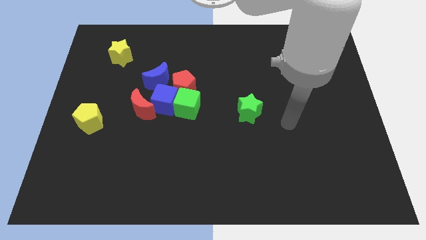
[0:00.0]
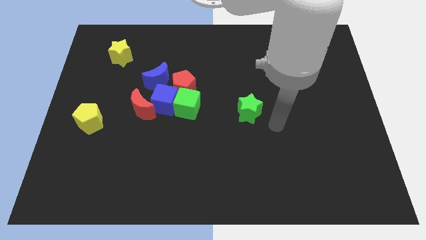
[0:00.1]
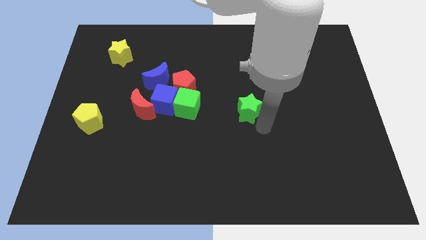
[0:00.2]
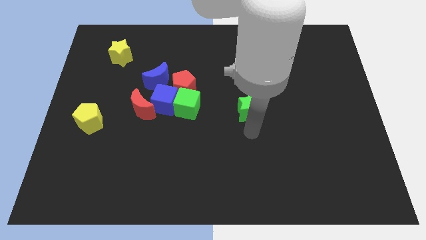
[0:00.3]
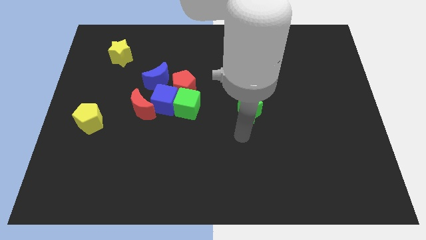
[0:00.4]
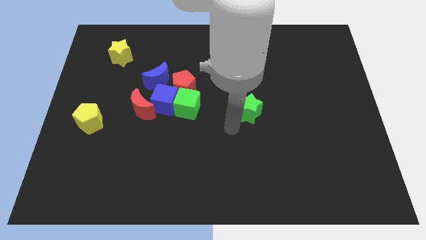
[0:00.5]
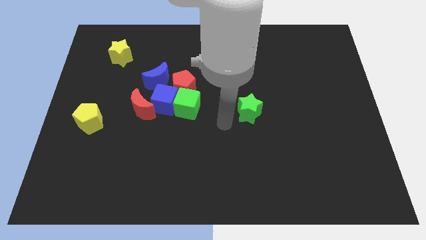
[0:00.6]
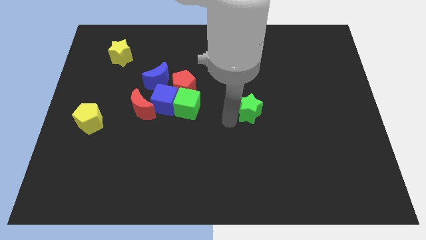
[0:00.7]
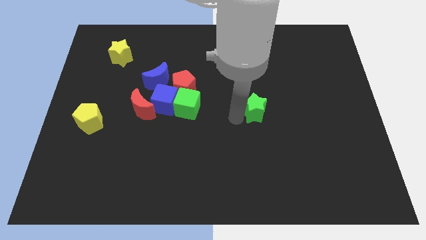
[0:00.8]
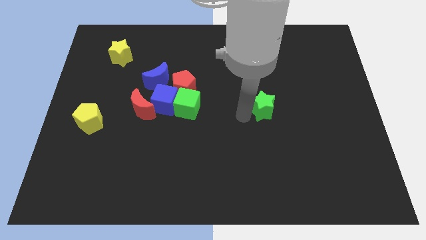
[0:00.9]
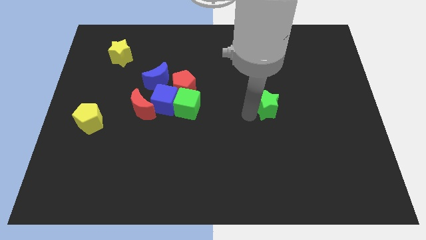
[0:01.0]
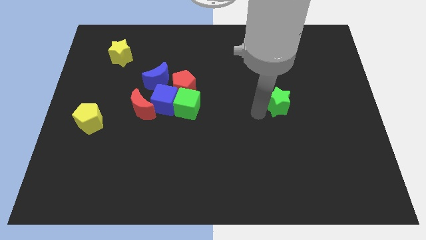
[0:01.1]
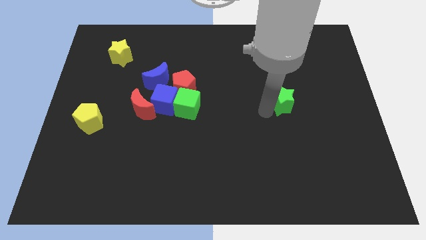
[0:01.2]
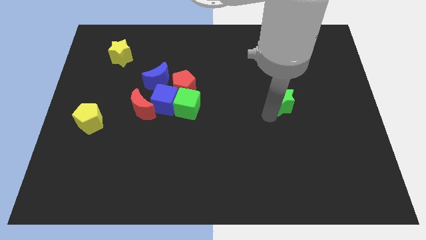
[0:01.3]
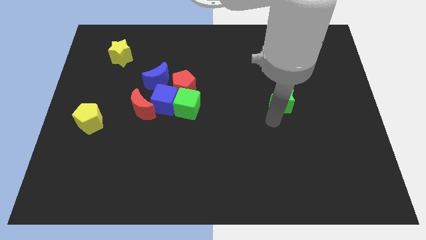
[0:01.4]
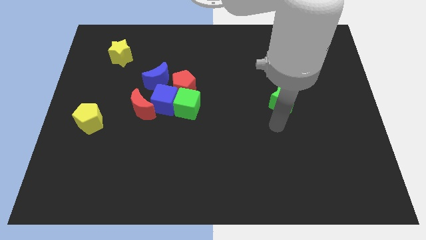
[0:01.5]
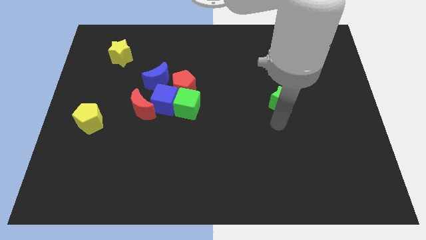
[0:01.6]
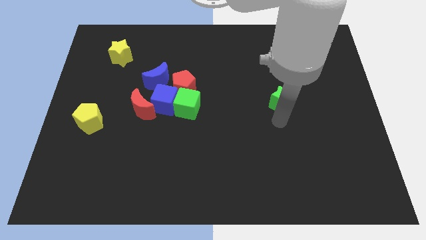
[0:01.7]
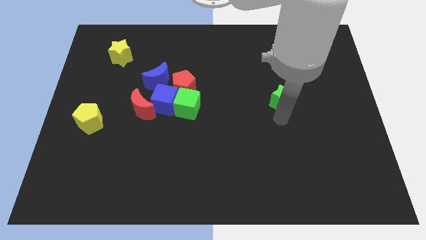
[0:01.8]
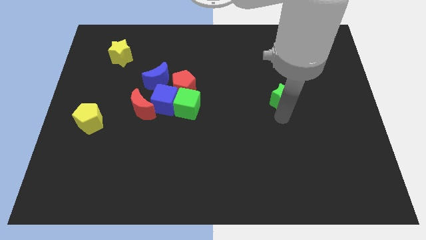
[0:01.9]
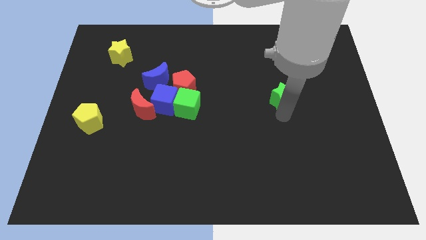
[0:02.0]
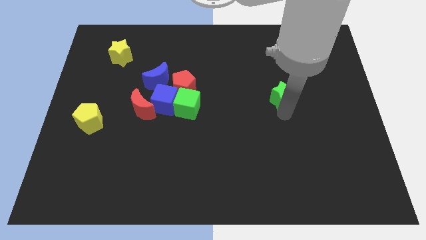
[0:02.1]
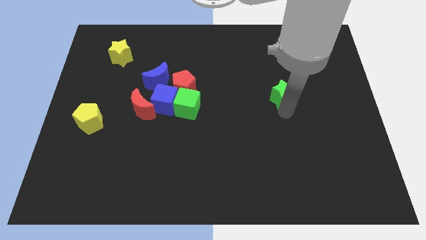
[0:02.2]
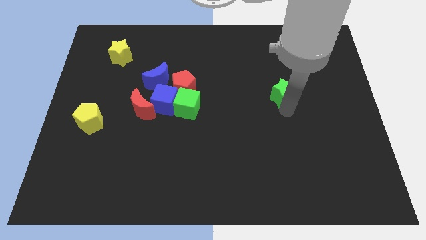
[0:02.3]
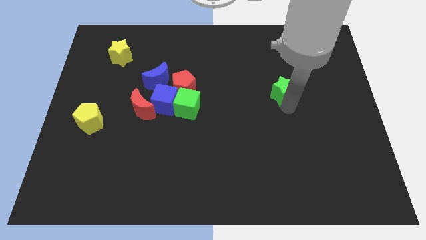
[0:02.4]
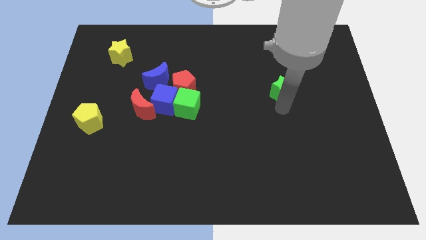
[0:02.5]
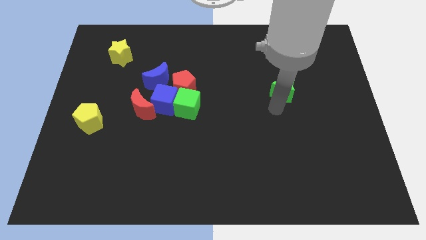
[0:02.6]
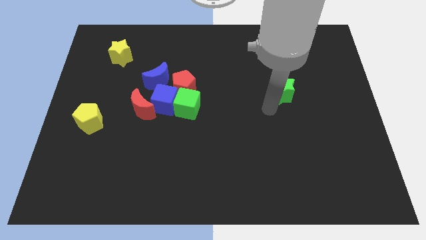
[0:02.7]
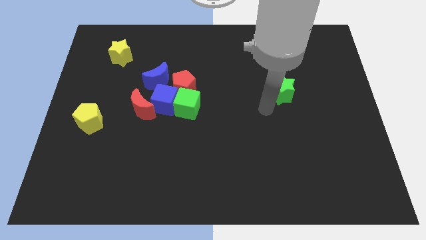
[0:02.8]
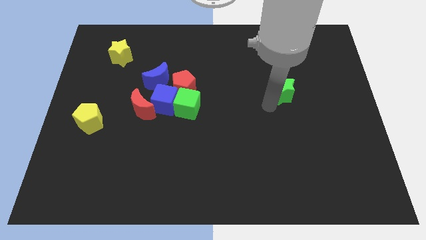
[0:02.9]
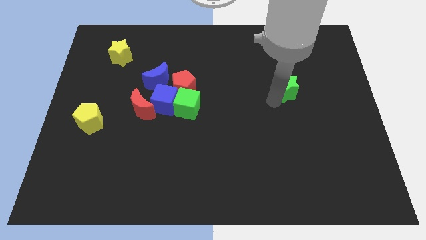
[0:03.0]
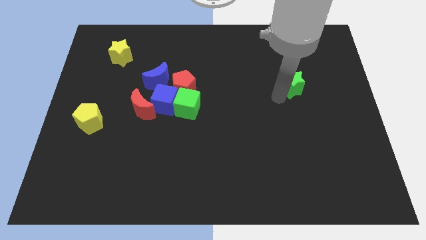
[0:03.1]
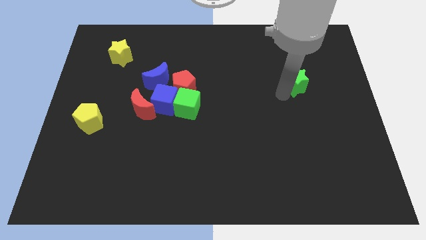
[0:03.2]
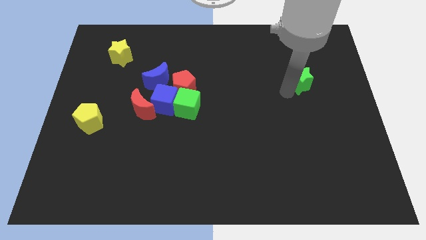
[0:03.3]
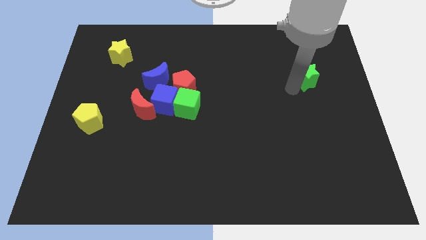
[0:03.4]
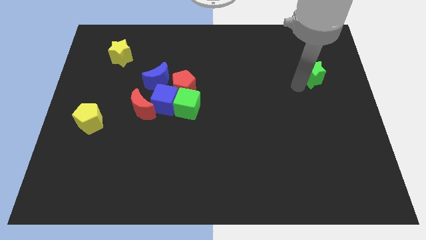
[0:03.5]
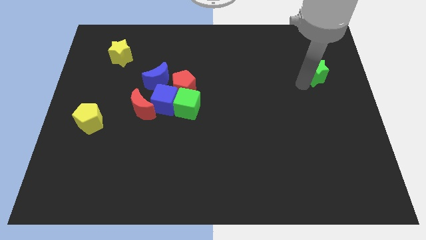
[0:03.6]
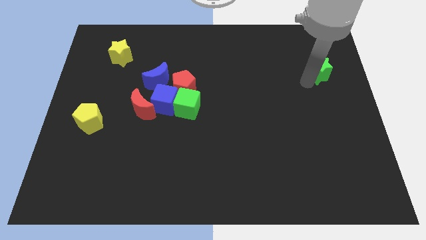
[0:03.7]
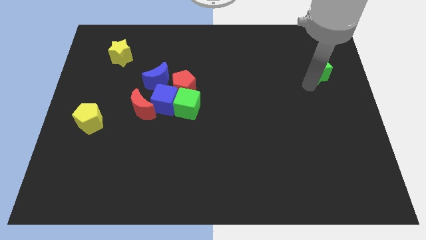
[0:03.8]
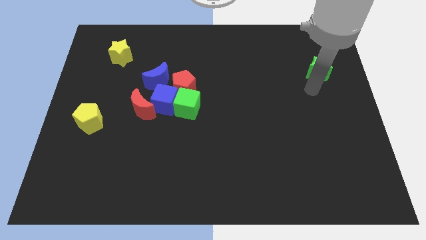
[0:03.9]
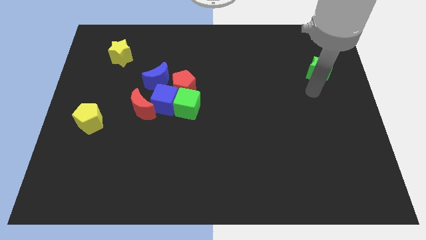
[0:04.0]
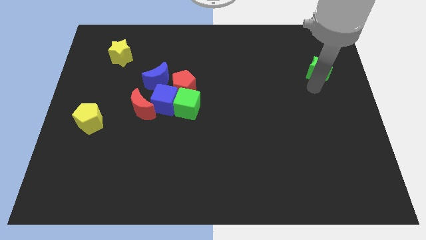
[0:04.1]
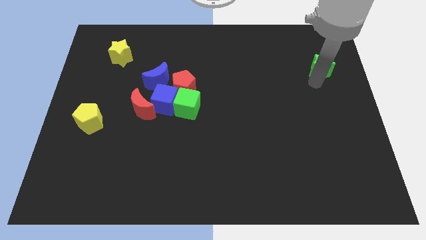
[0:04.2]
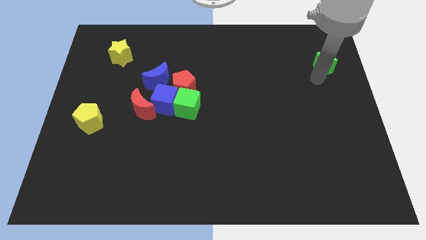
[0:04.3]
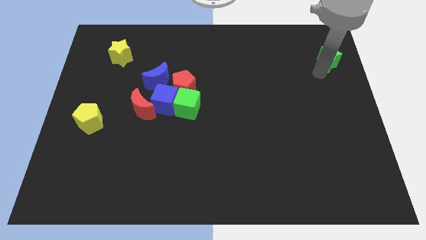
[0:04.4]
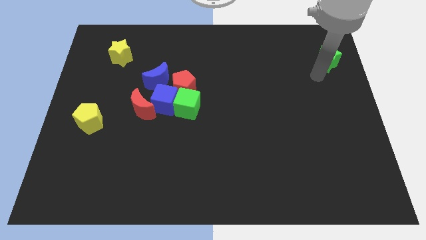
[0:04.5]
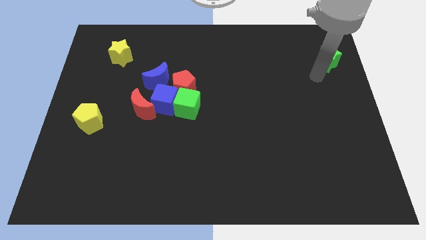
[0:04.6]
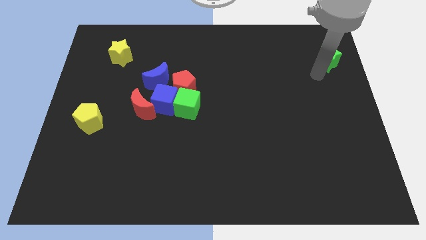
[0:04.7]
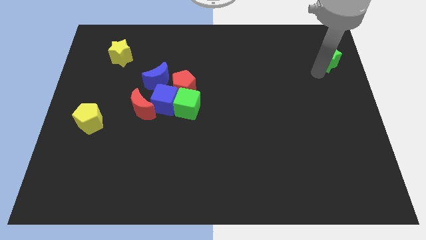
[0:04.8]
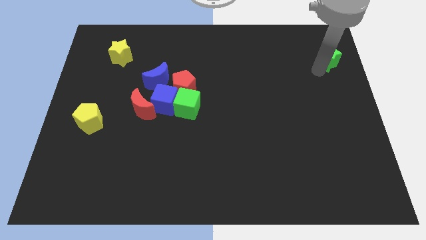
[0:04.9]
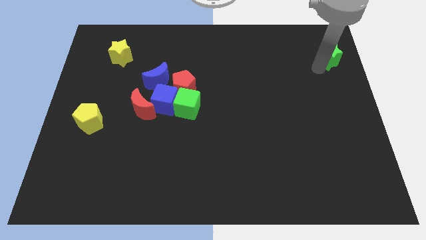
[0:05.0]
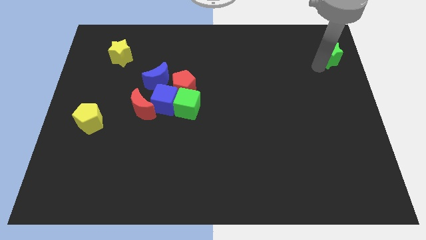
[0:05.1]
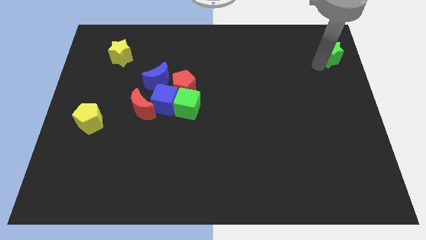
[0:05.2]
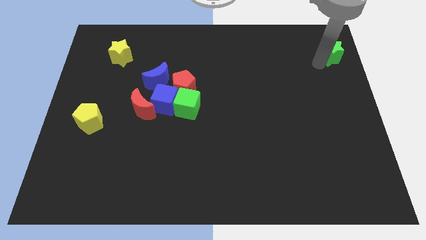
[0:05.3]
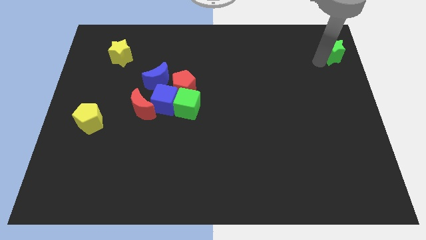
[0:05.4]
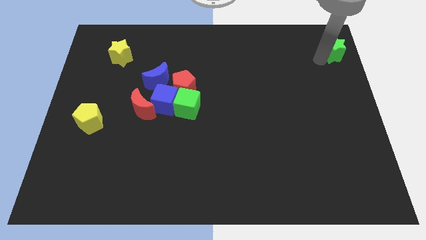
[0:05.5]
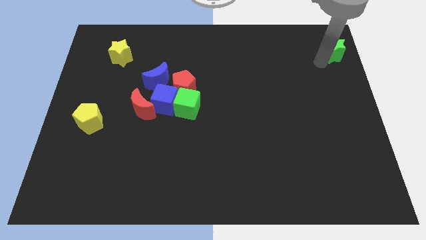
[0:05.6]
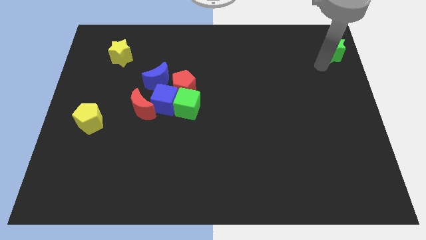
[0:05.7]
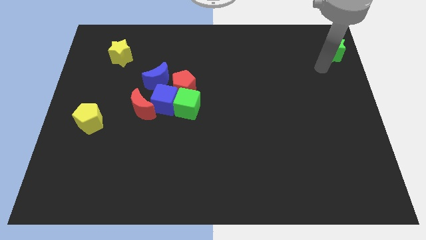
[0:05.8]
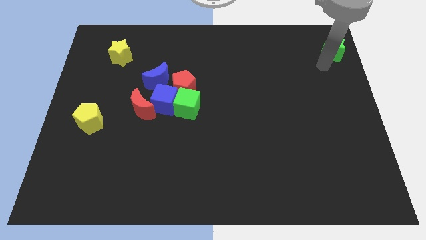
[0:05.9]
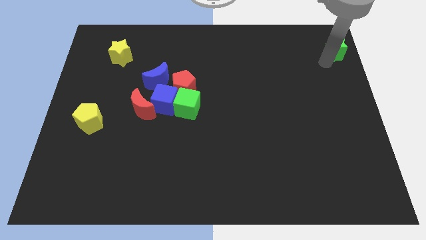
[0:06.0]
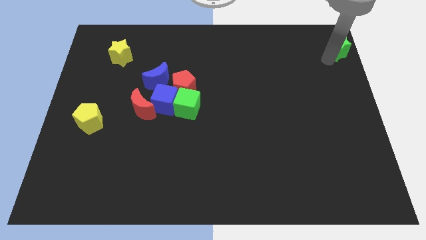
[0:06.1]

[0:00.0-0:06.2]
move the green star to the top right
